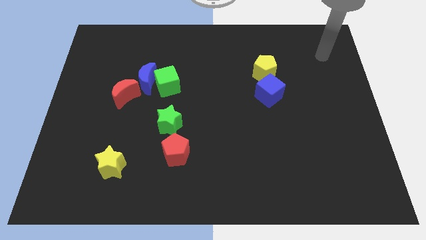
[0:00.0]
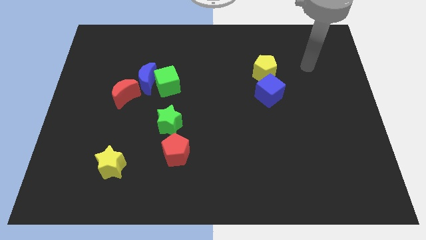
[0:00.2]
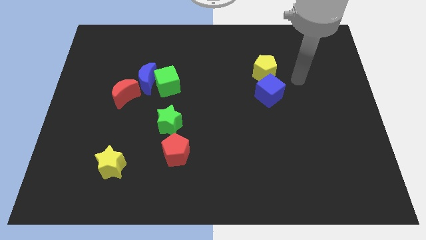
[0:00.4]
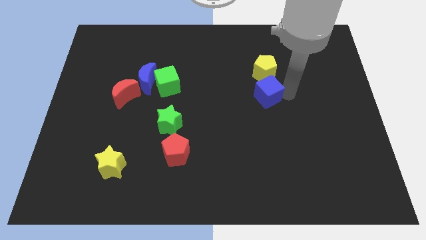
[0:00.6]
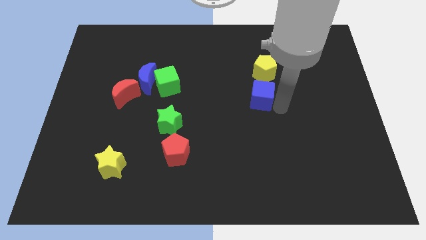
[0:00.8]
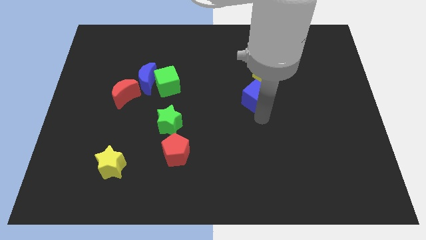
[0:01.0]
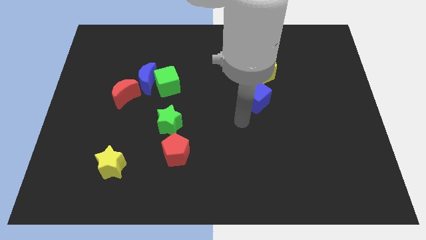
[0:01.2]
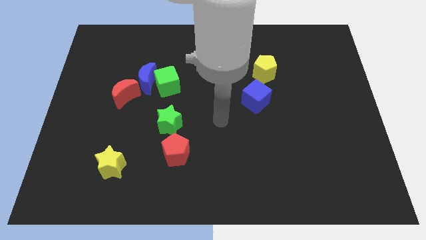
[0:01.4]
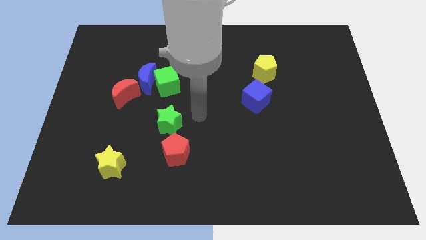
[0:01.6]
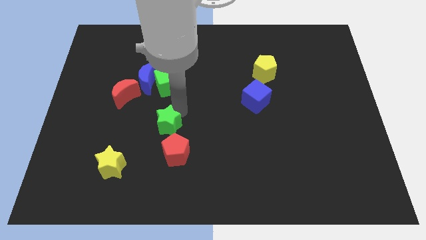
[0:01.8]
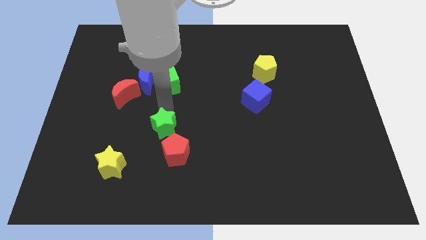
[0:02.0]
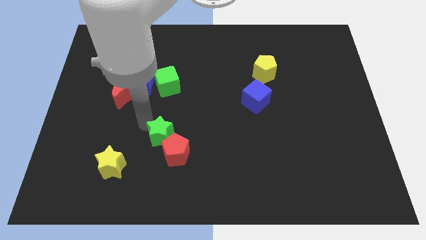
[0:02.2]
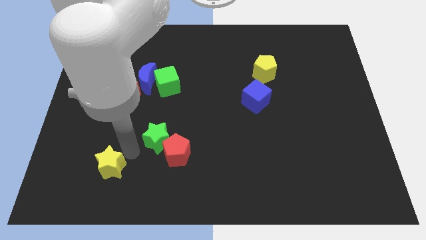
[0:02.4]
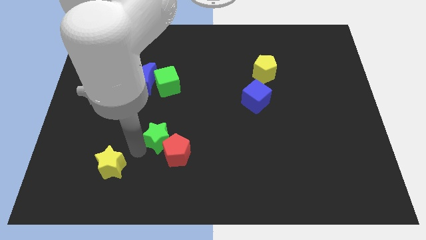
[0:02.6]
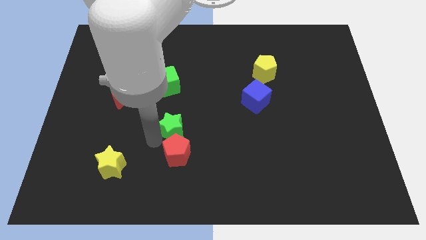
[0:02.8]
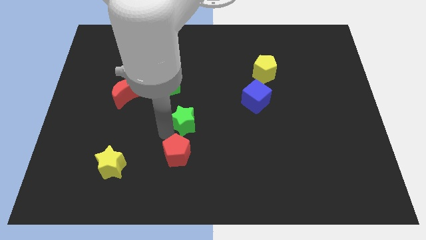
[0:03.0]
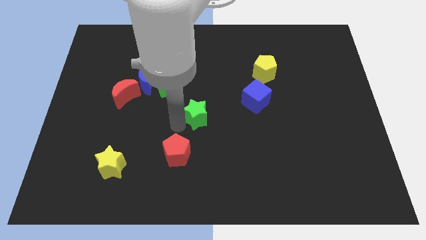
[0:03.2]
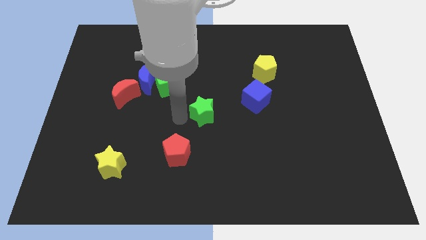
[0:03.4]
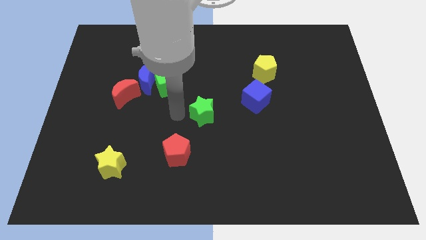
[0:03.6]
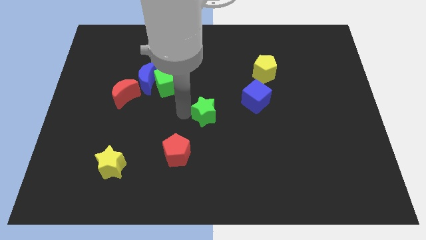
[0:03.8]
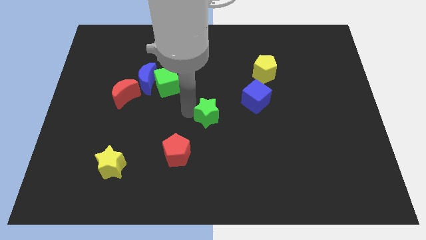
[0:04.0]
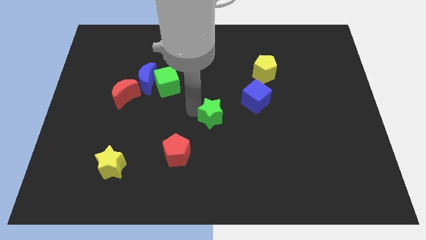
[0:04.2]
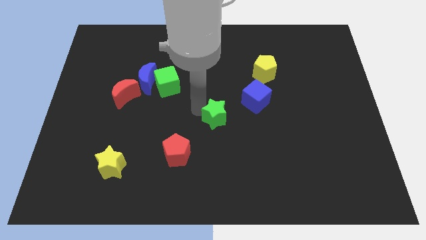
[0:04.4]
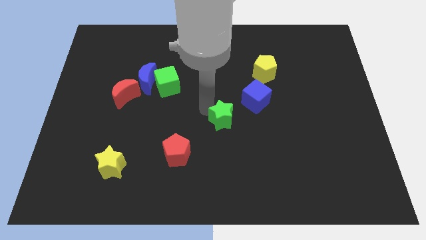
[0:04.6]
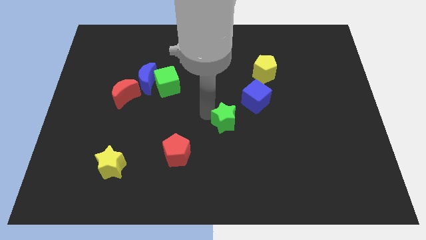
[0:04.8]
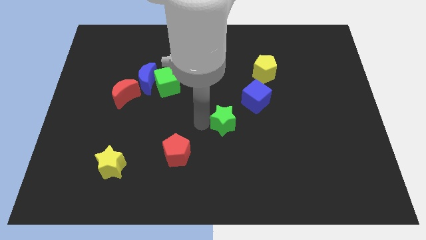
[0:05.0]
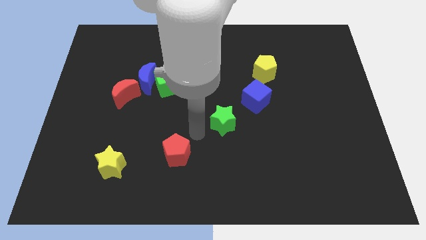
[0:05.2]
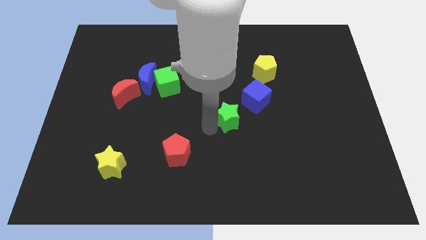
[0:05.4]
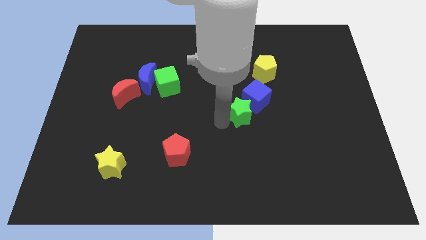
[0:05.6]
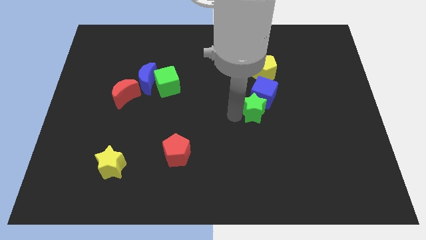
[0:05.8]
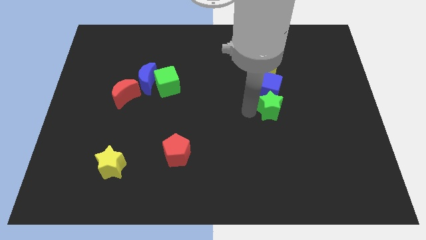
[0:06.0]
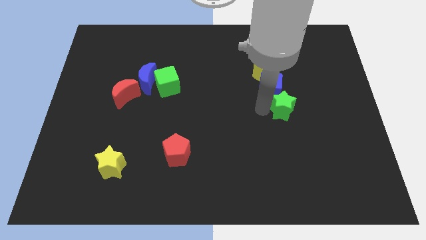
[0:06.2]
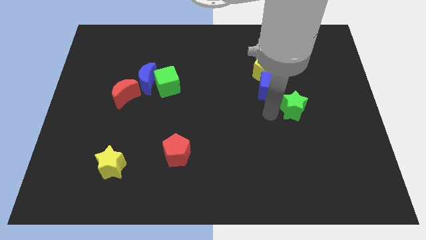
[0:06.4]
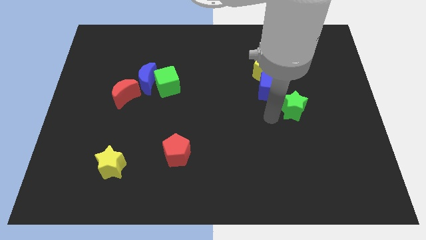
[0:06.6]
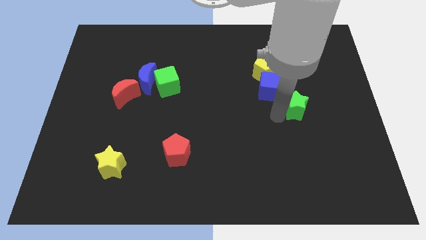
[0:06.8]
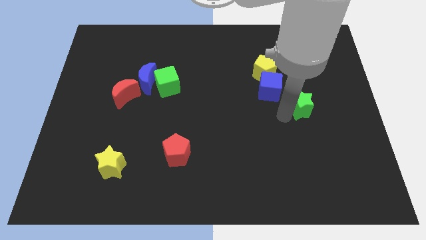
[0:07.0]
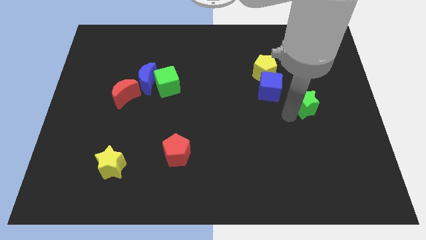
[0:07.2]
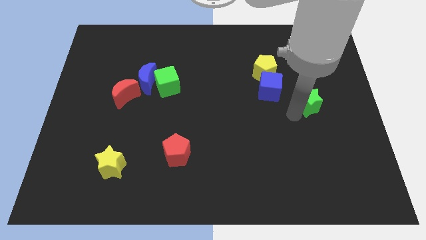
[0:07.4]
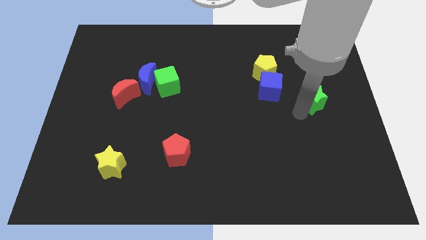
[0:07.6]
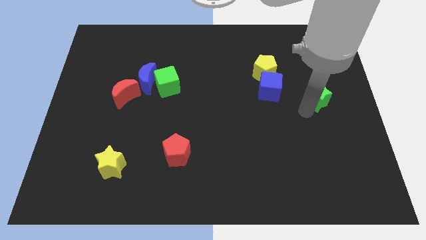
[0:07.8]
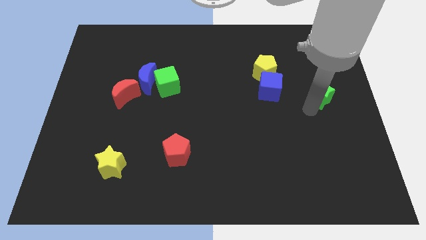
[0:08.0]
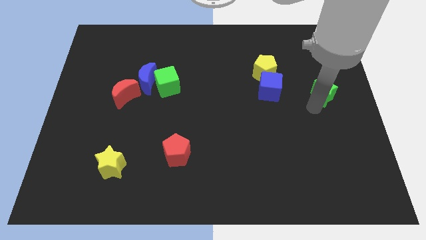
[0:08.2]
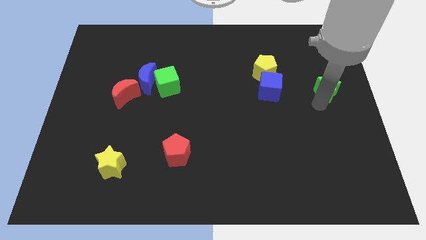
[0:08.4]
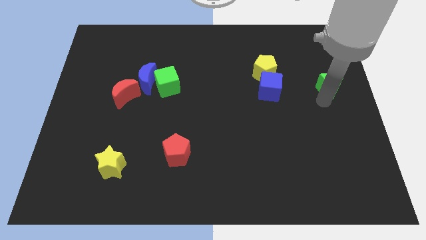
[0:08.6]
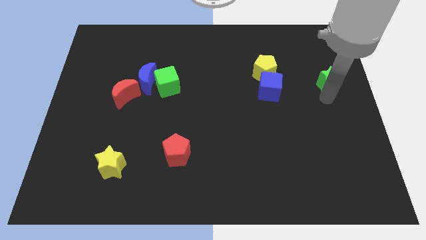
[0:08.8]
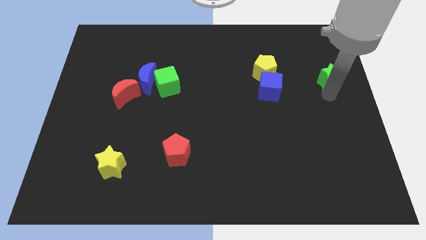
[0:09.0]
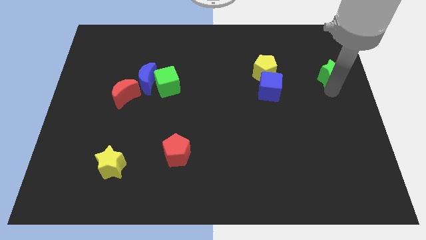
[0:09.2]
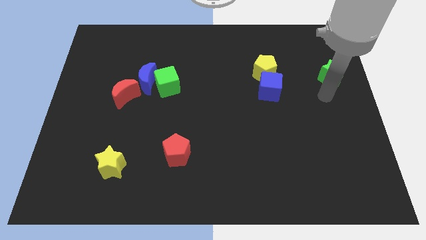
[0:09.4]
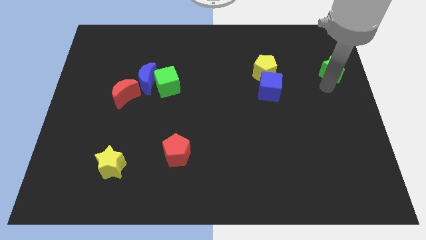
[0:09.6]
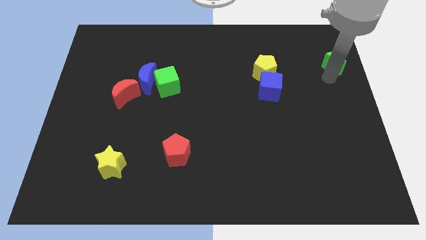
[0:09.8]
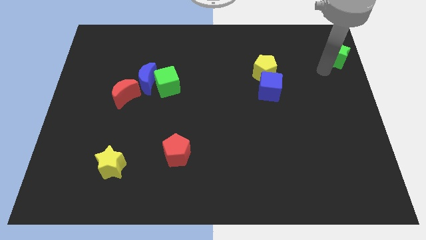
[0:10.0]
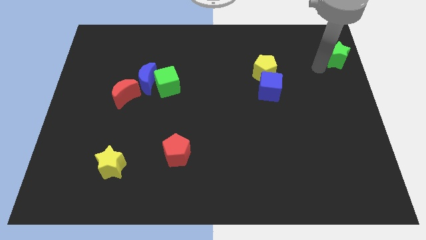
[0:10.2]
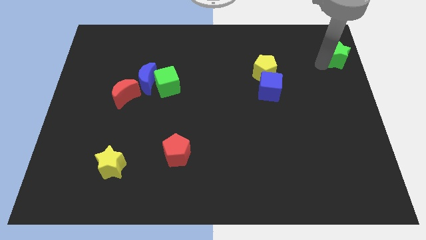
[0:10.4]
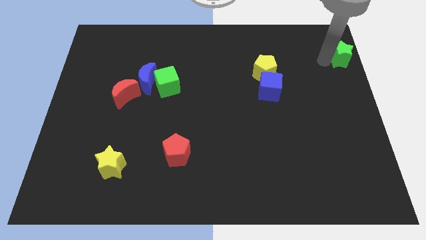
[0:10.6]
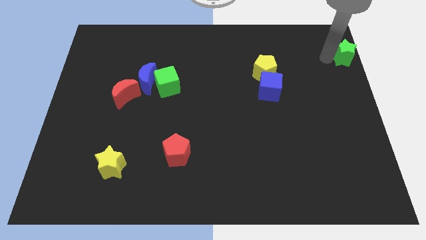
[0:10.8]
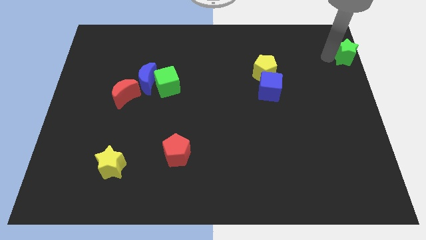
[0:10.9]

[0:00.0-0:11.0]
slide the green star to the top right of the board
